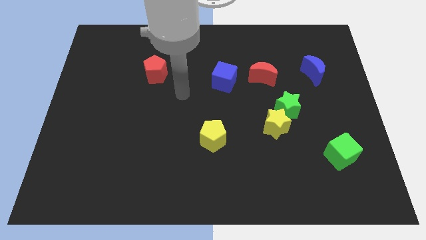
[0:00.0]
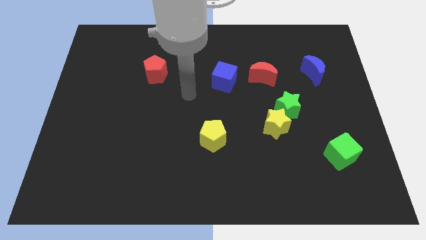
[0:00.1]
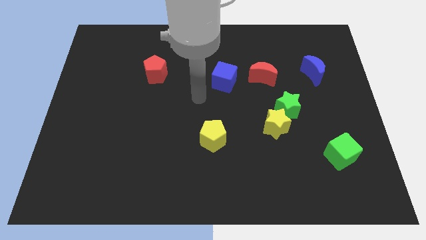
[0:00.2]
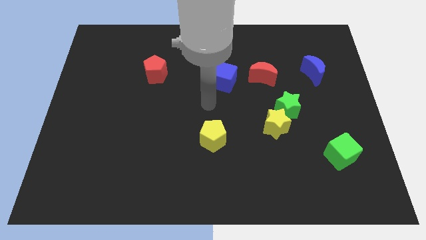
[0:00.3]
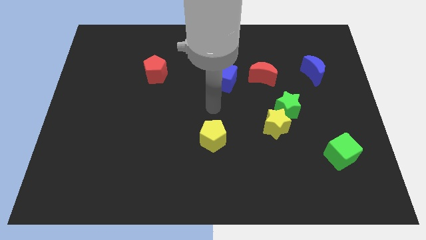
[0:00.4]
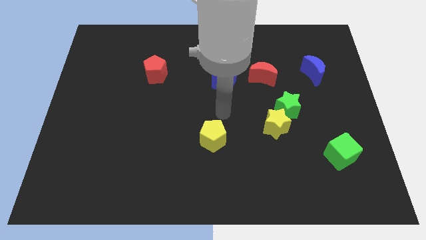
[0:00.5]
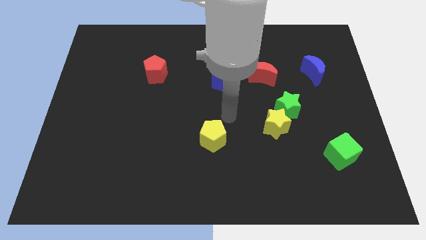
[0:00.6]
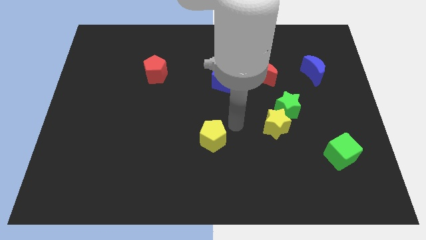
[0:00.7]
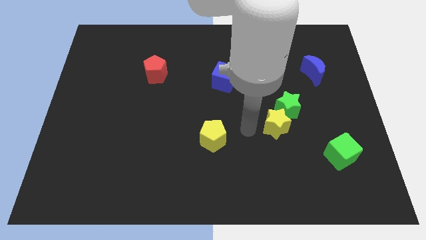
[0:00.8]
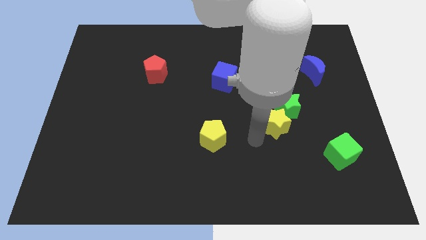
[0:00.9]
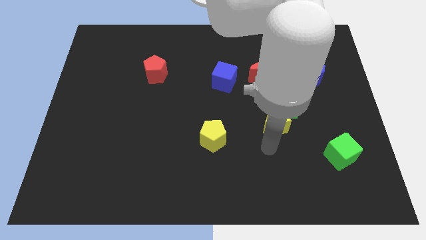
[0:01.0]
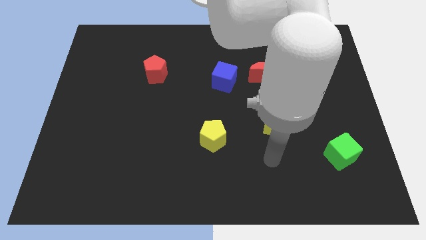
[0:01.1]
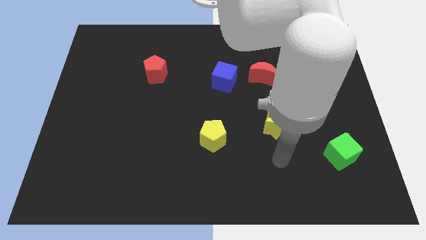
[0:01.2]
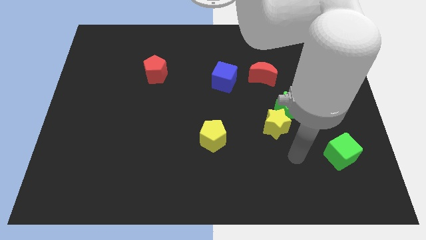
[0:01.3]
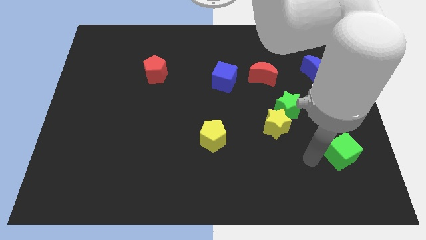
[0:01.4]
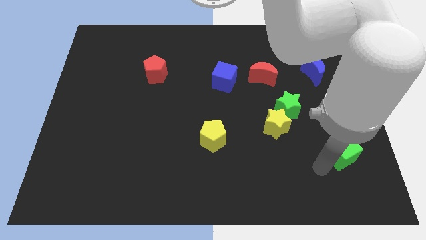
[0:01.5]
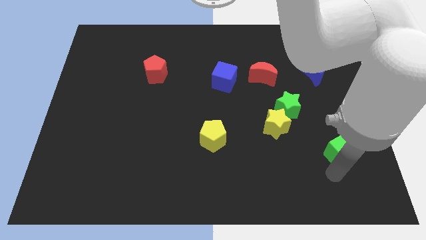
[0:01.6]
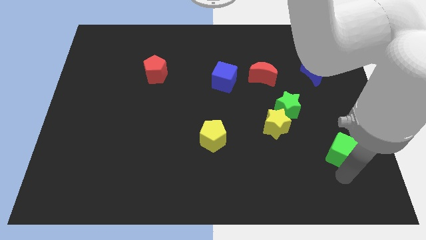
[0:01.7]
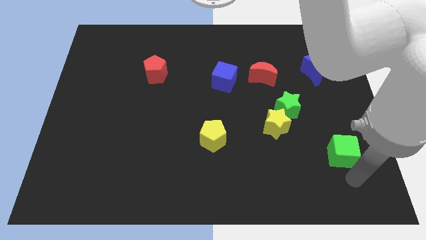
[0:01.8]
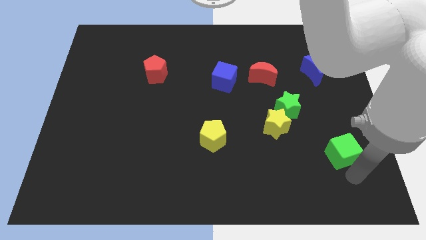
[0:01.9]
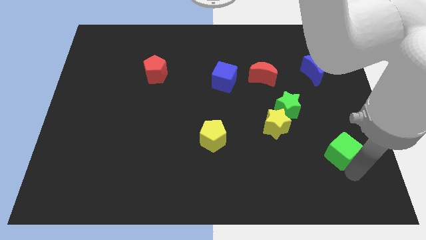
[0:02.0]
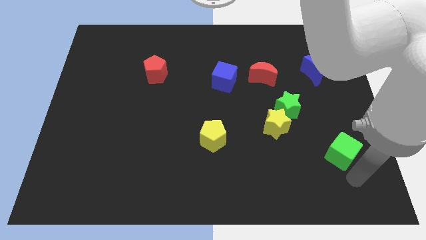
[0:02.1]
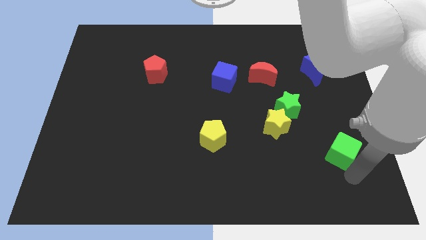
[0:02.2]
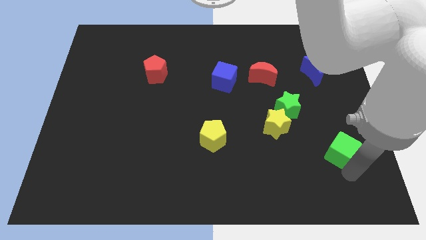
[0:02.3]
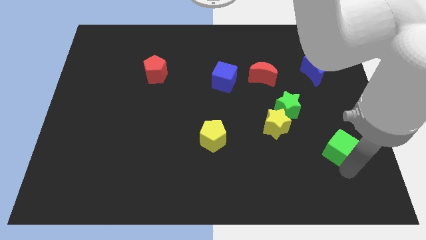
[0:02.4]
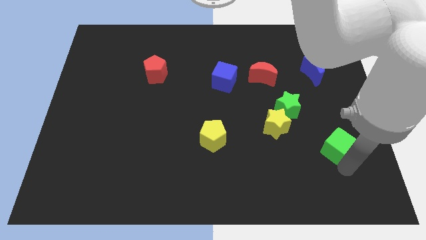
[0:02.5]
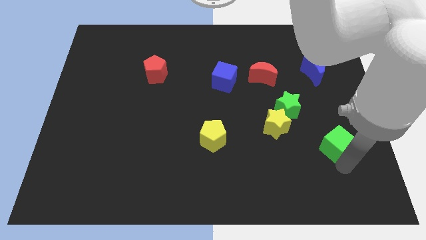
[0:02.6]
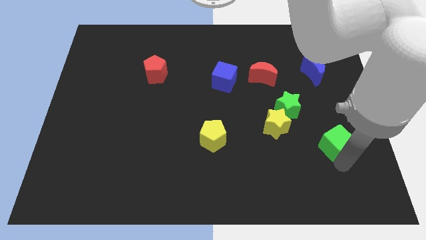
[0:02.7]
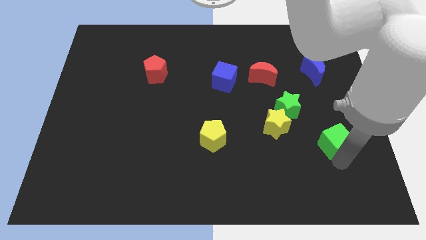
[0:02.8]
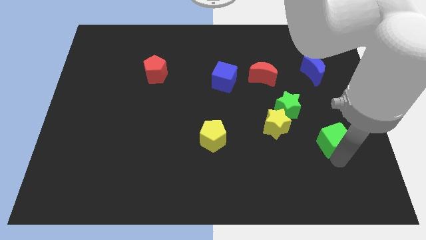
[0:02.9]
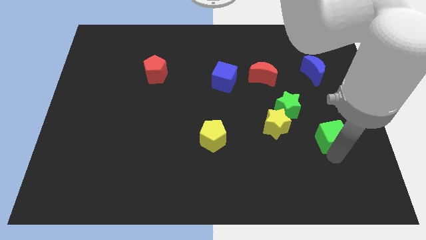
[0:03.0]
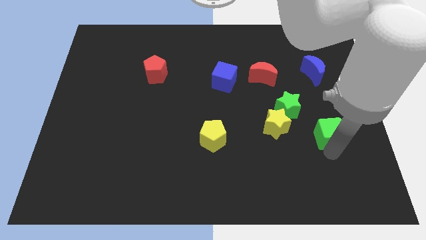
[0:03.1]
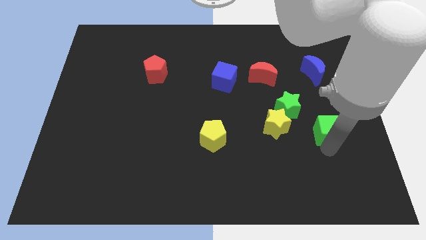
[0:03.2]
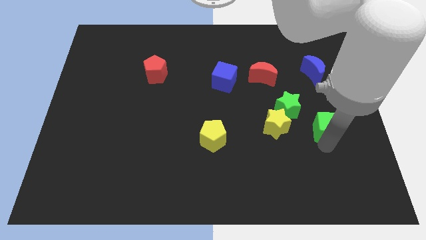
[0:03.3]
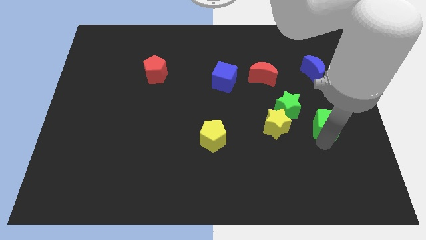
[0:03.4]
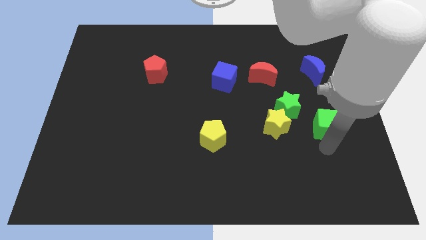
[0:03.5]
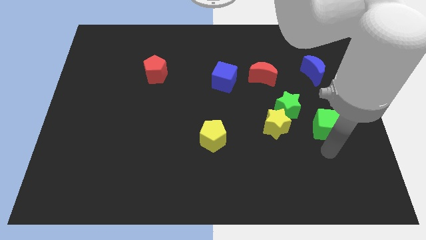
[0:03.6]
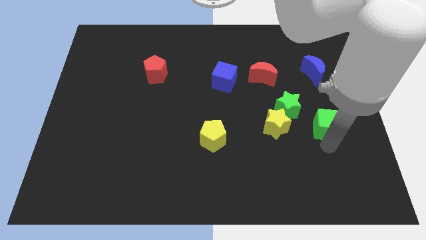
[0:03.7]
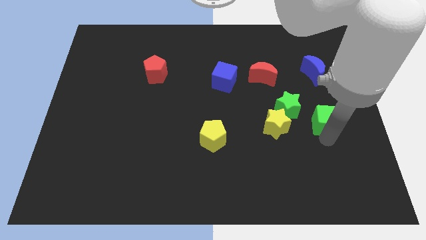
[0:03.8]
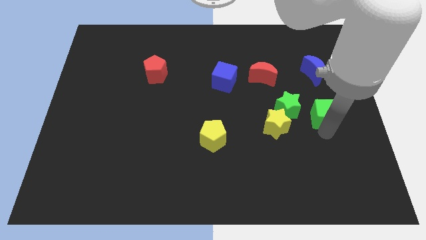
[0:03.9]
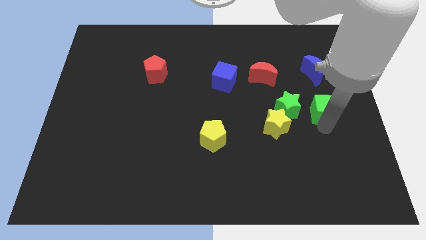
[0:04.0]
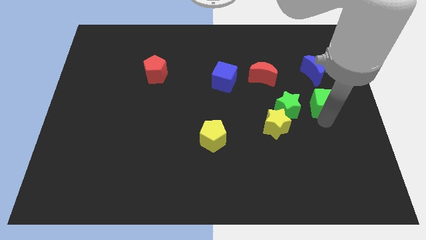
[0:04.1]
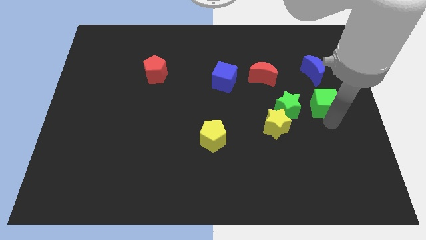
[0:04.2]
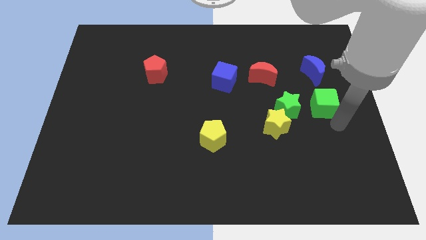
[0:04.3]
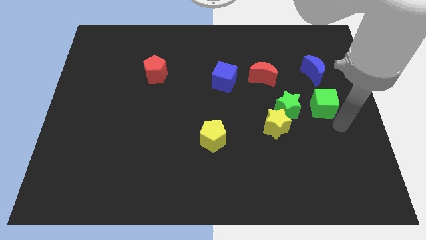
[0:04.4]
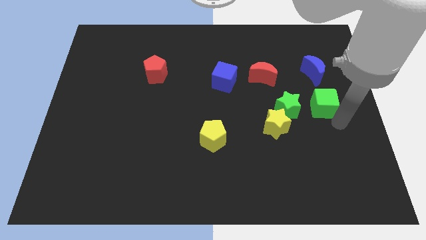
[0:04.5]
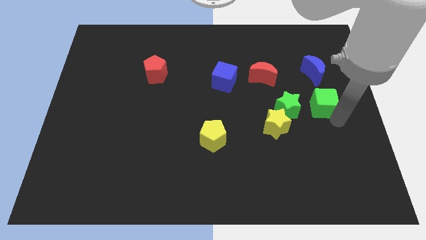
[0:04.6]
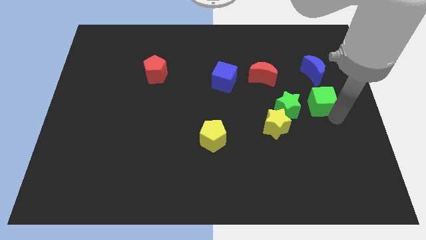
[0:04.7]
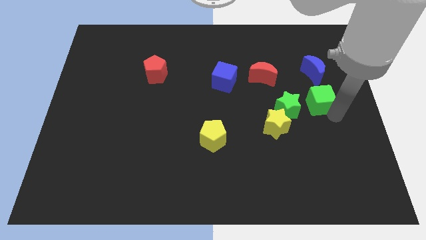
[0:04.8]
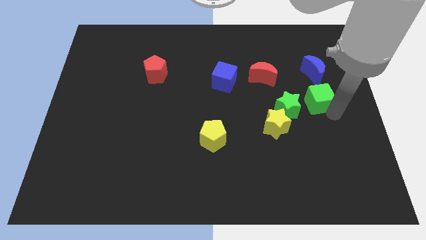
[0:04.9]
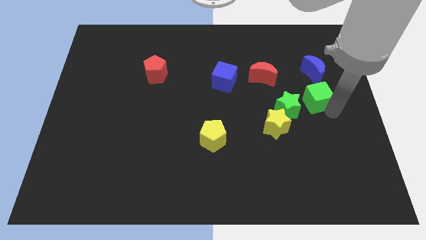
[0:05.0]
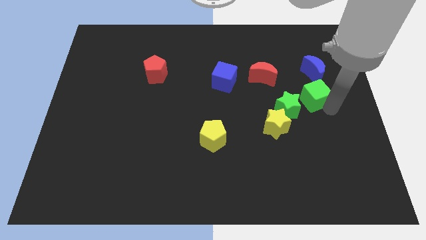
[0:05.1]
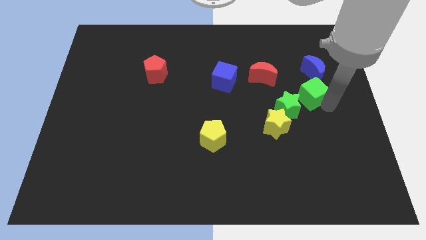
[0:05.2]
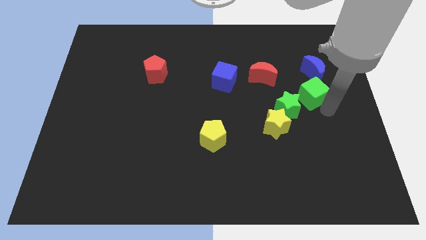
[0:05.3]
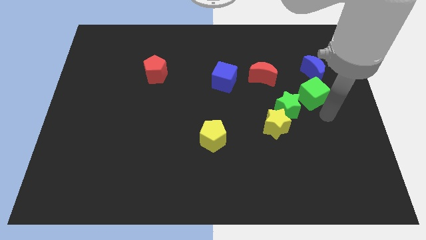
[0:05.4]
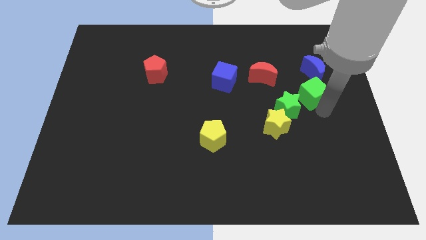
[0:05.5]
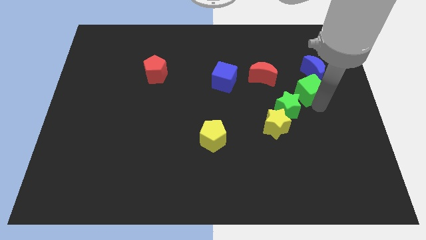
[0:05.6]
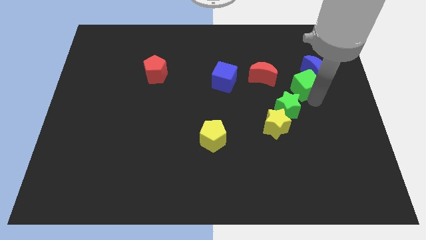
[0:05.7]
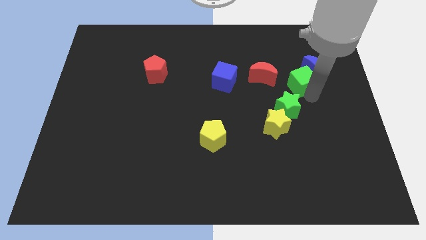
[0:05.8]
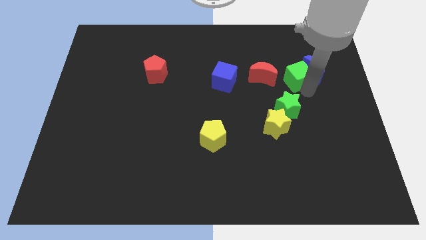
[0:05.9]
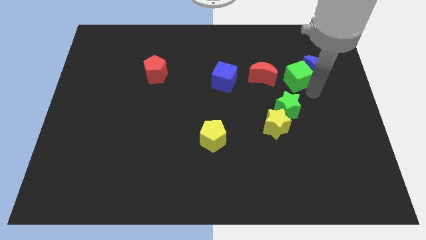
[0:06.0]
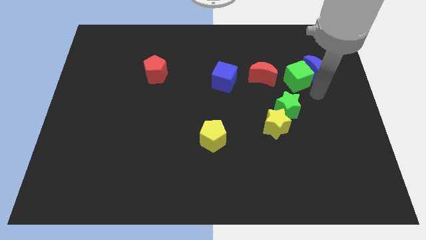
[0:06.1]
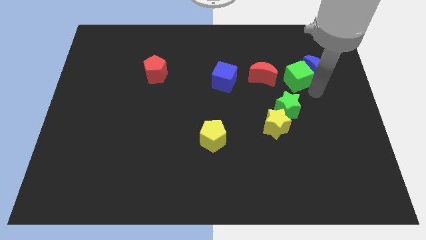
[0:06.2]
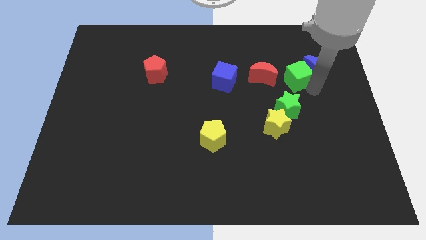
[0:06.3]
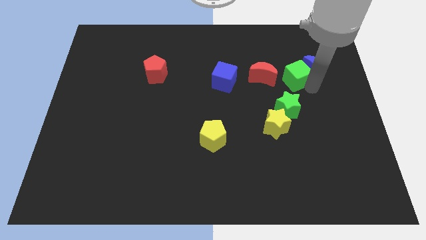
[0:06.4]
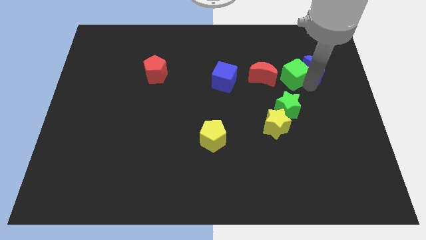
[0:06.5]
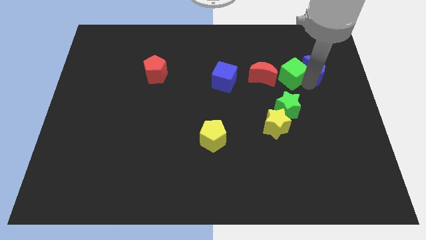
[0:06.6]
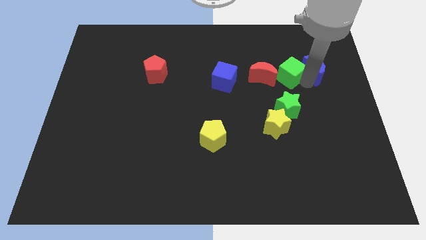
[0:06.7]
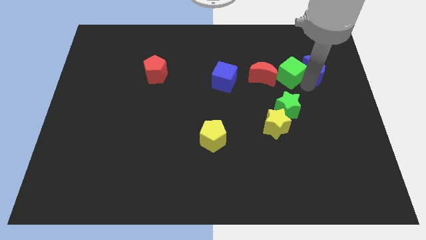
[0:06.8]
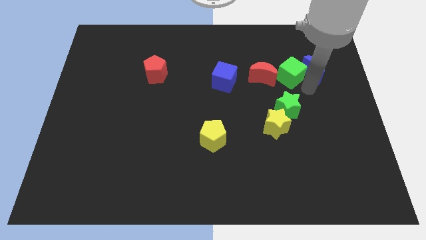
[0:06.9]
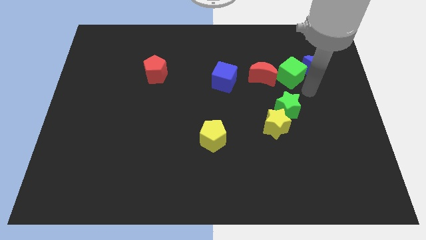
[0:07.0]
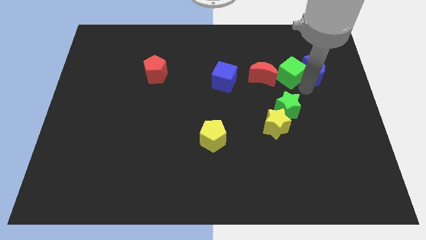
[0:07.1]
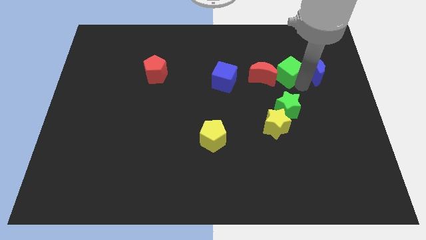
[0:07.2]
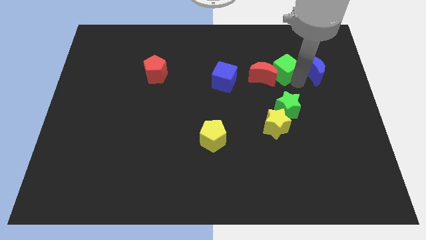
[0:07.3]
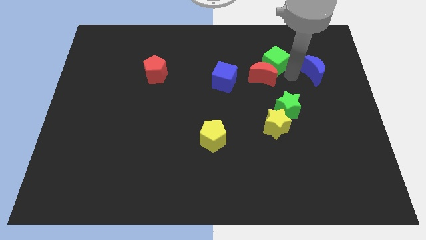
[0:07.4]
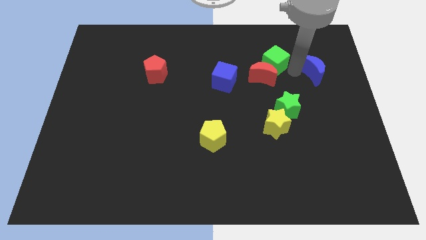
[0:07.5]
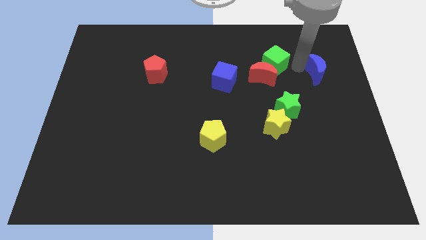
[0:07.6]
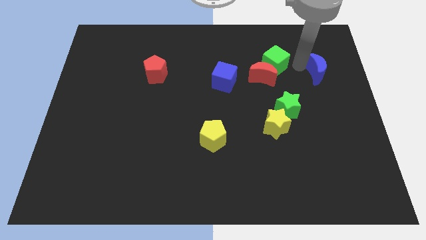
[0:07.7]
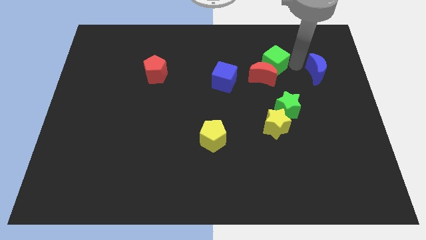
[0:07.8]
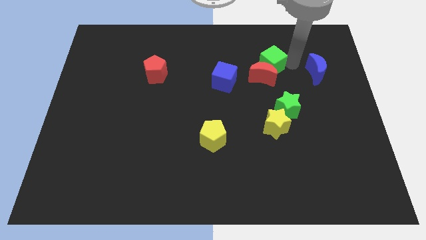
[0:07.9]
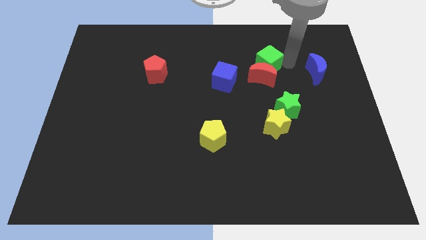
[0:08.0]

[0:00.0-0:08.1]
put the green cube to the top left side of the red moon
